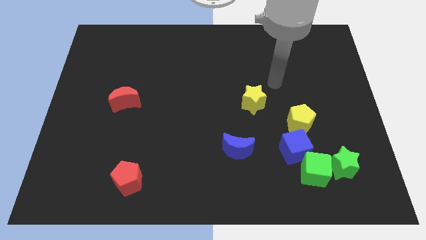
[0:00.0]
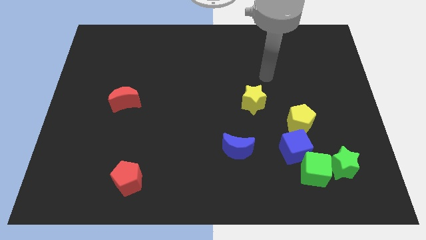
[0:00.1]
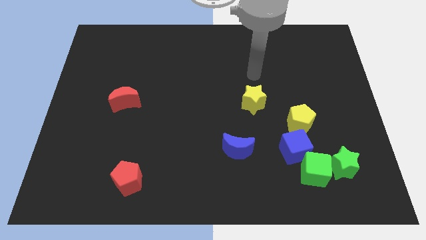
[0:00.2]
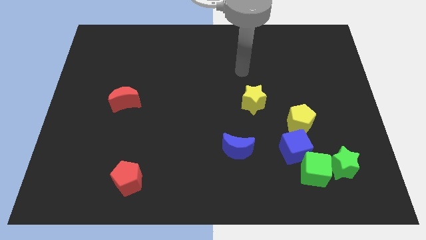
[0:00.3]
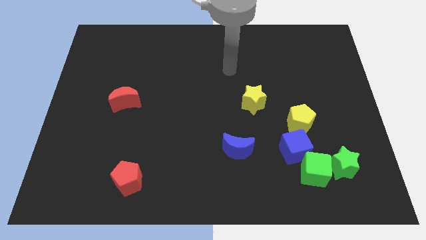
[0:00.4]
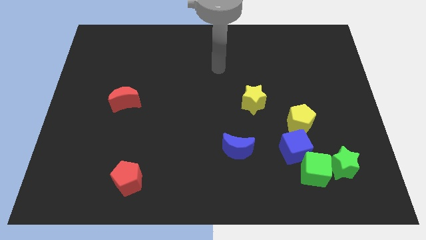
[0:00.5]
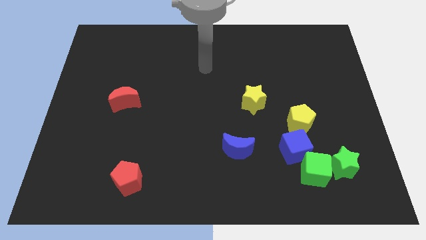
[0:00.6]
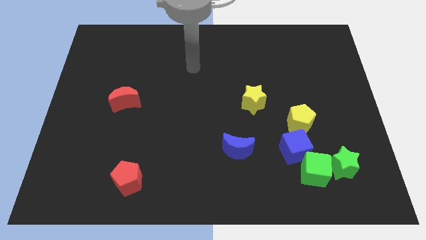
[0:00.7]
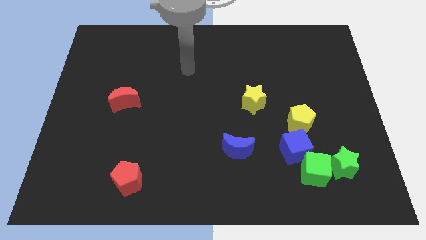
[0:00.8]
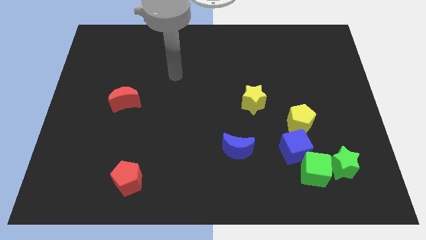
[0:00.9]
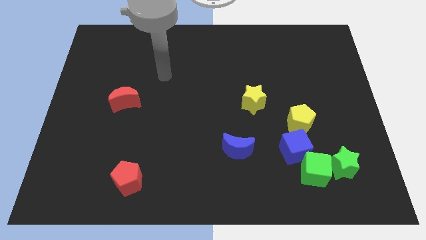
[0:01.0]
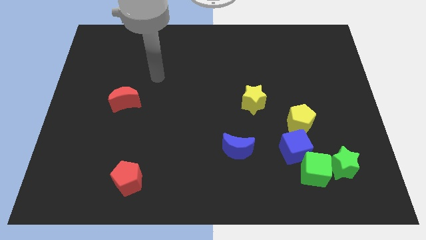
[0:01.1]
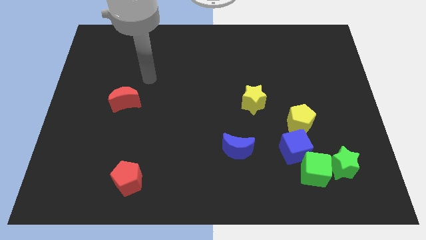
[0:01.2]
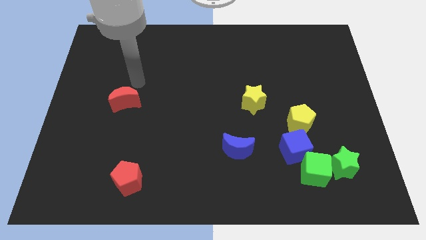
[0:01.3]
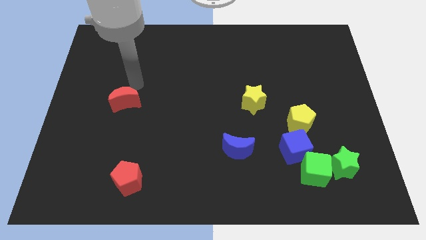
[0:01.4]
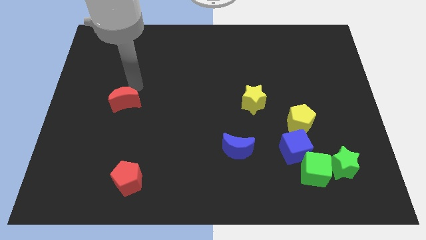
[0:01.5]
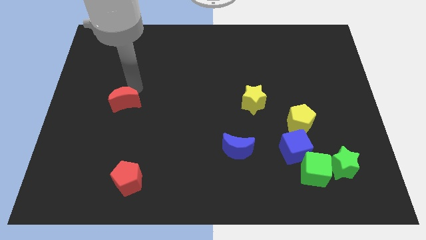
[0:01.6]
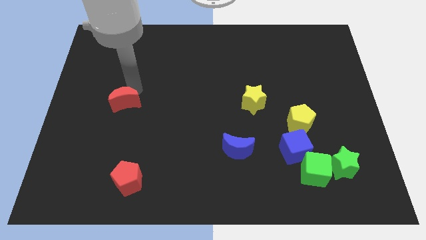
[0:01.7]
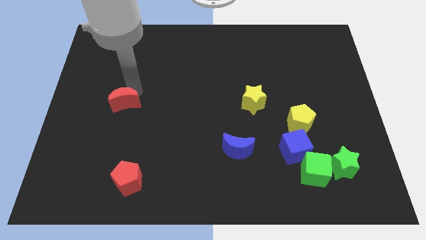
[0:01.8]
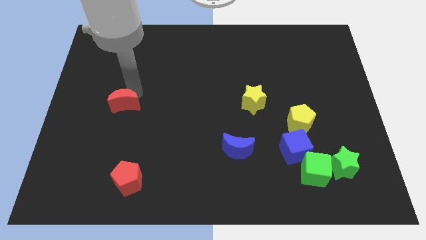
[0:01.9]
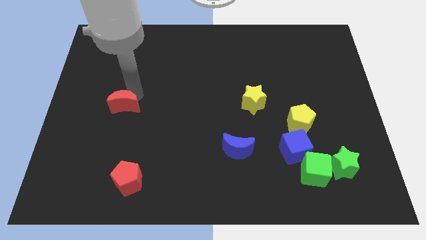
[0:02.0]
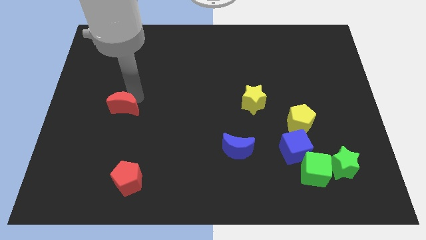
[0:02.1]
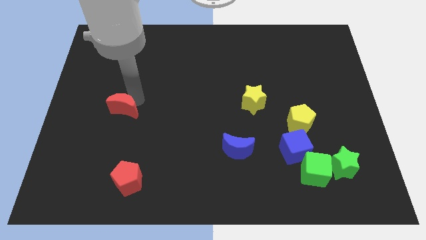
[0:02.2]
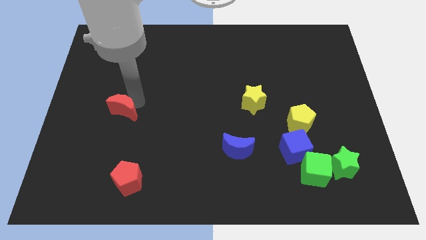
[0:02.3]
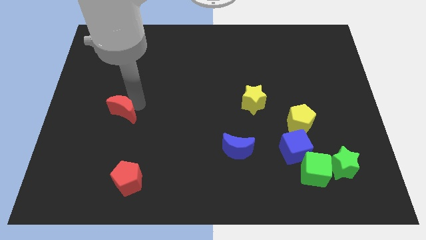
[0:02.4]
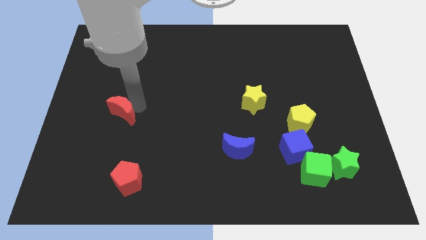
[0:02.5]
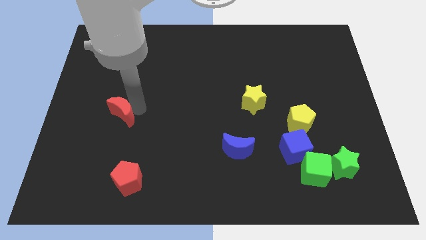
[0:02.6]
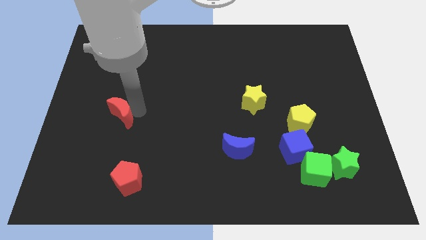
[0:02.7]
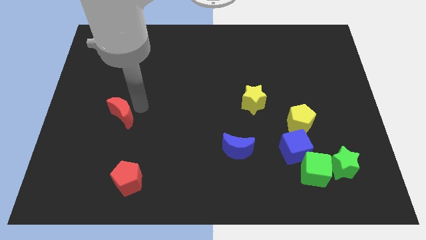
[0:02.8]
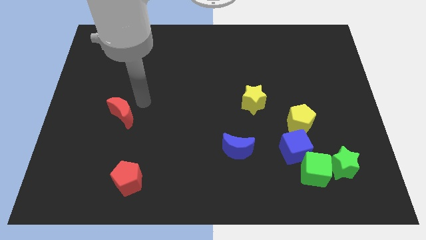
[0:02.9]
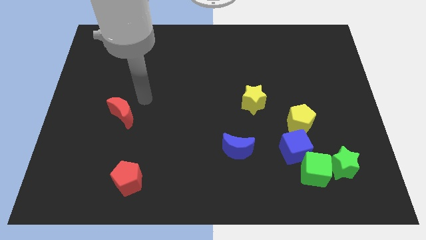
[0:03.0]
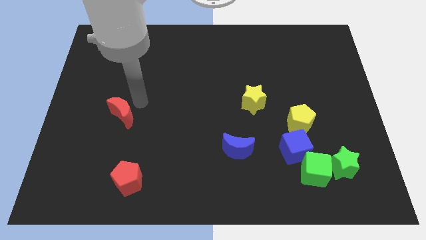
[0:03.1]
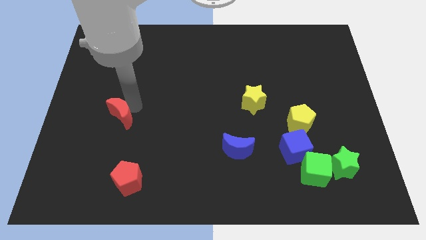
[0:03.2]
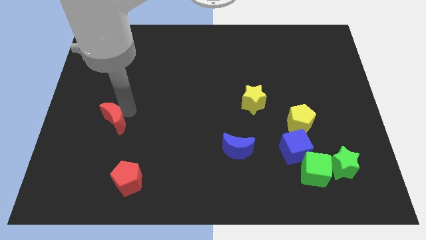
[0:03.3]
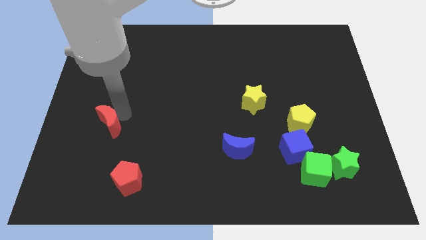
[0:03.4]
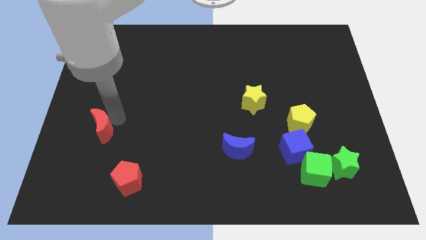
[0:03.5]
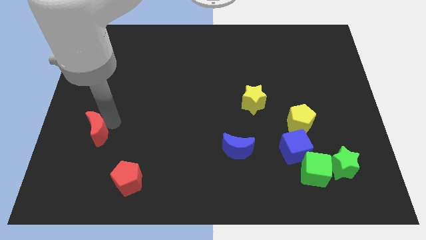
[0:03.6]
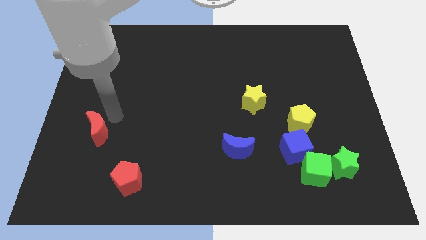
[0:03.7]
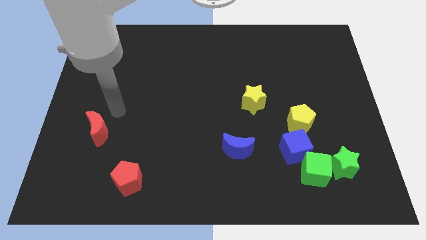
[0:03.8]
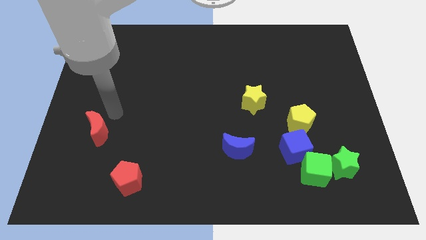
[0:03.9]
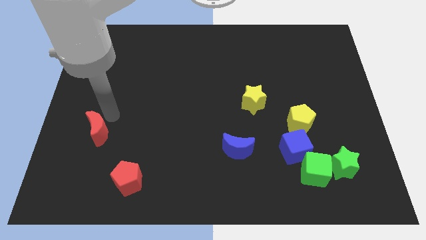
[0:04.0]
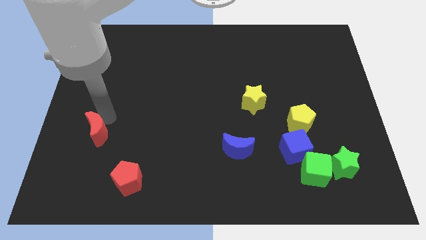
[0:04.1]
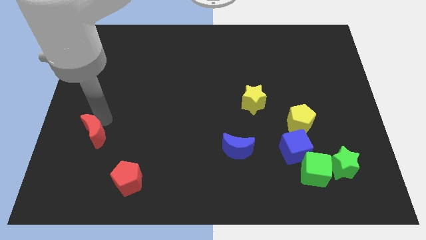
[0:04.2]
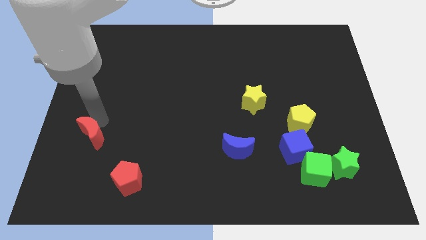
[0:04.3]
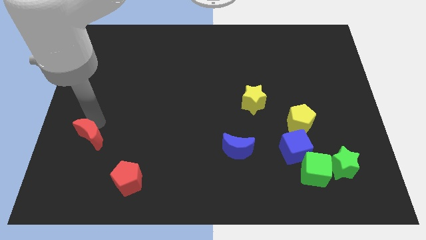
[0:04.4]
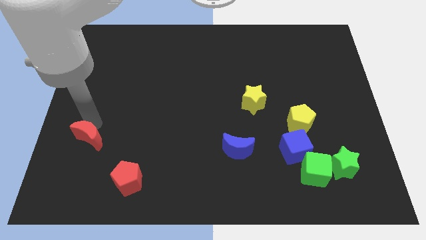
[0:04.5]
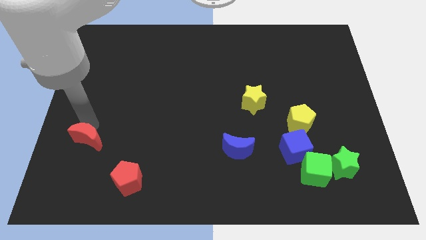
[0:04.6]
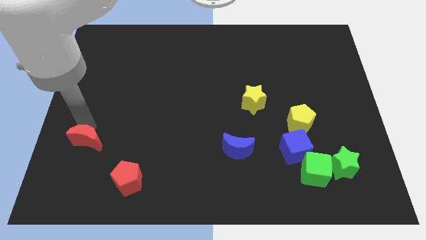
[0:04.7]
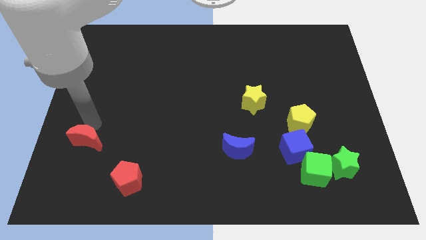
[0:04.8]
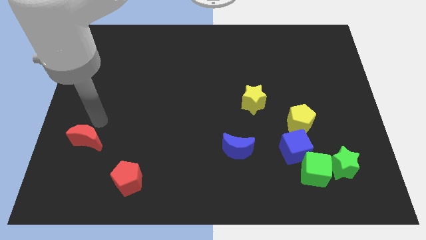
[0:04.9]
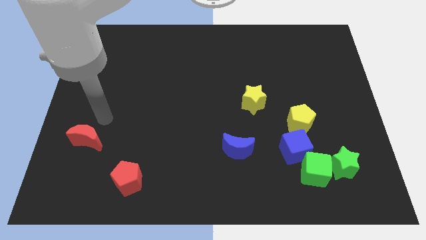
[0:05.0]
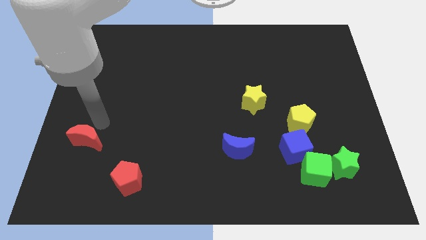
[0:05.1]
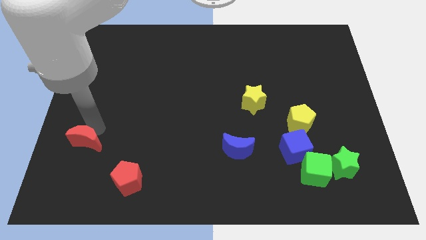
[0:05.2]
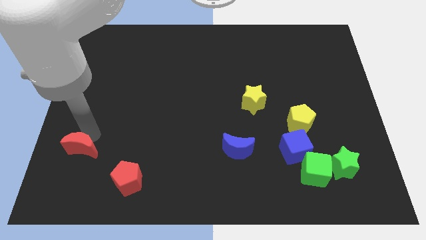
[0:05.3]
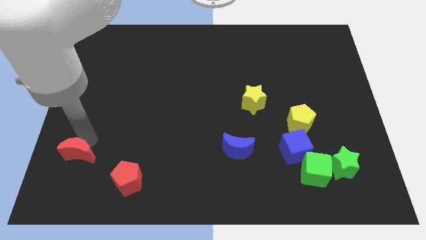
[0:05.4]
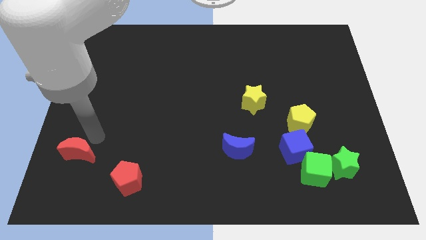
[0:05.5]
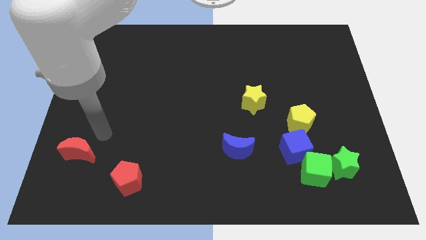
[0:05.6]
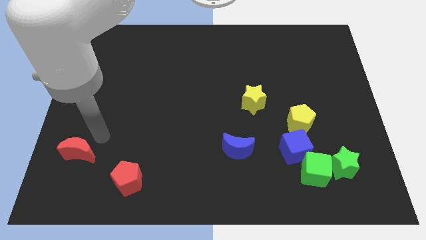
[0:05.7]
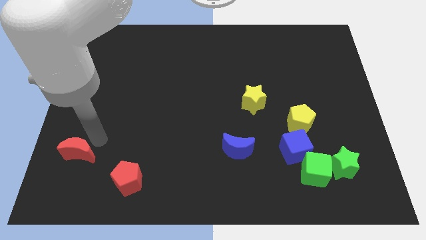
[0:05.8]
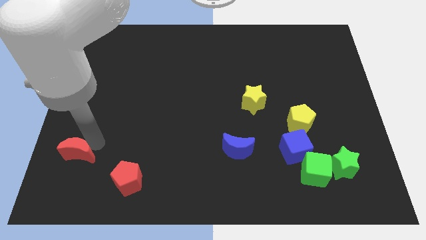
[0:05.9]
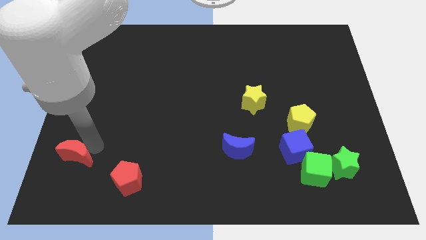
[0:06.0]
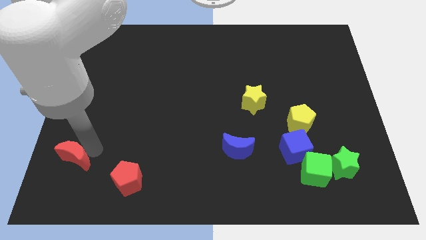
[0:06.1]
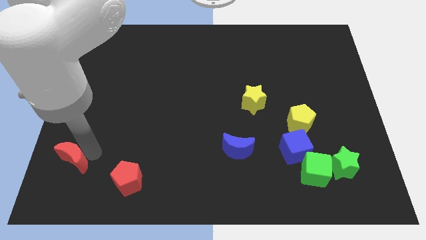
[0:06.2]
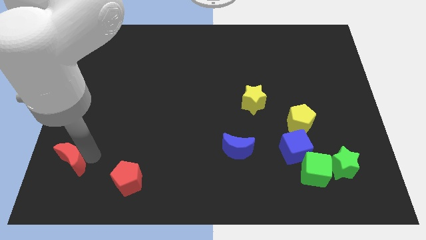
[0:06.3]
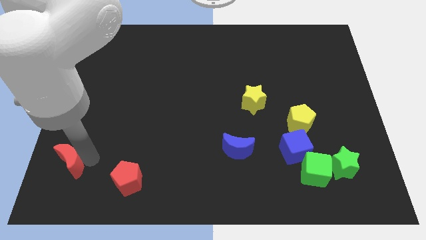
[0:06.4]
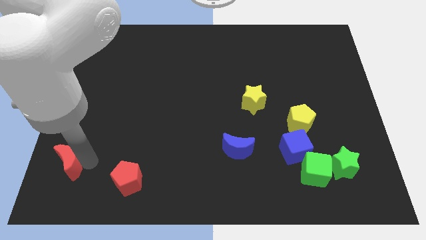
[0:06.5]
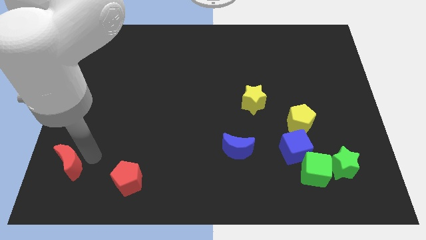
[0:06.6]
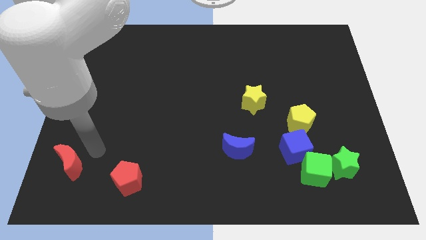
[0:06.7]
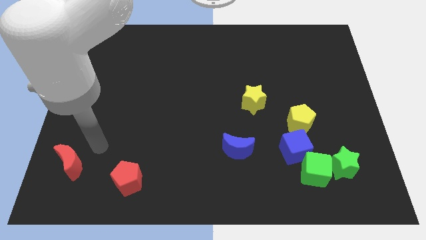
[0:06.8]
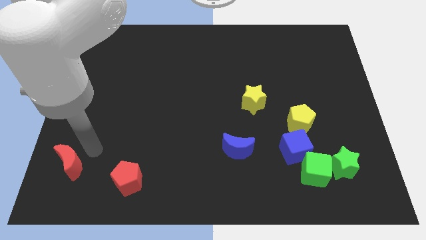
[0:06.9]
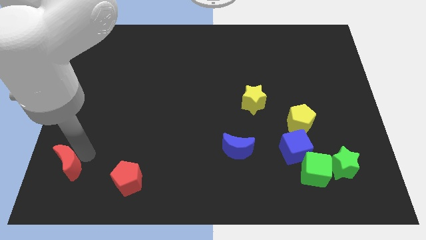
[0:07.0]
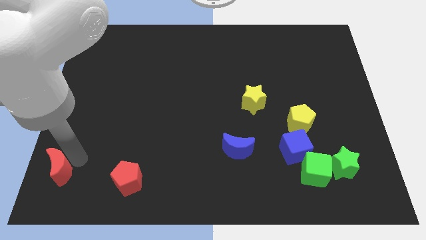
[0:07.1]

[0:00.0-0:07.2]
put the red moon to the lower left corner
